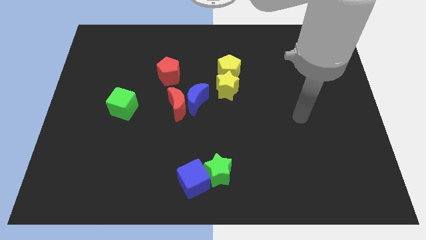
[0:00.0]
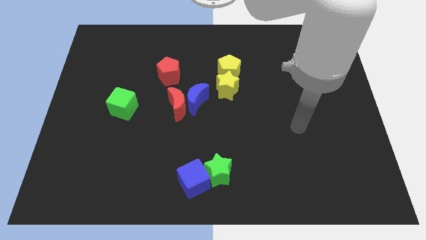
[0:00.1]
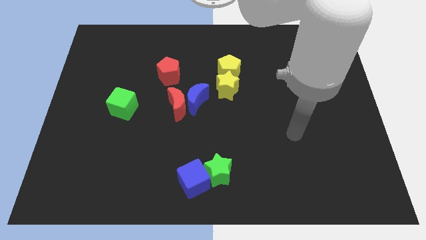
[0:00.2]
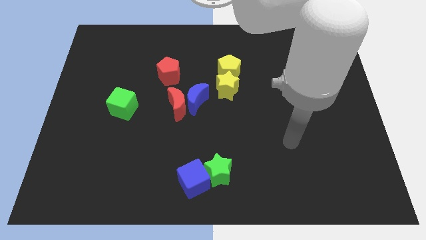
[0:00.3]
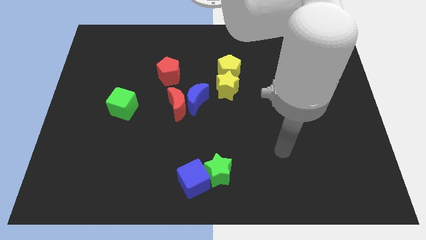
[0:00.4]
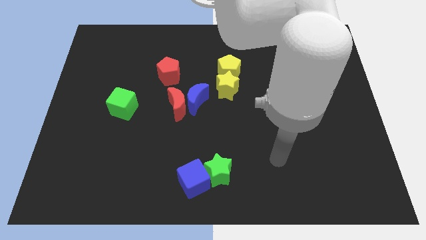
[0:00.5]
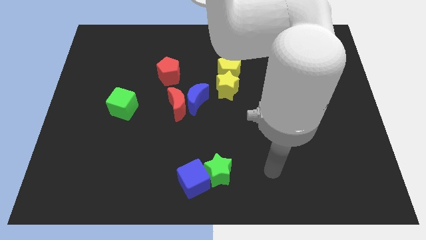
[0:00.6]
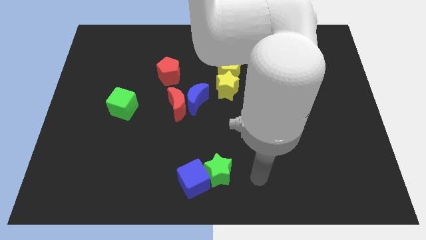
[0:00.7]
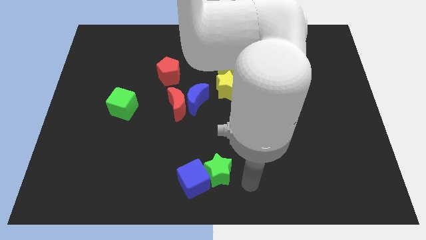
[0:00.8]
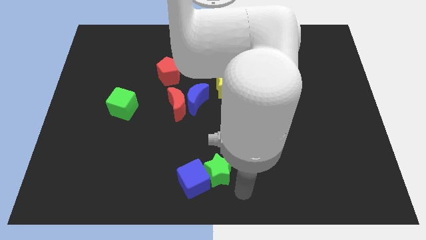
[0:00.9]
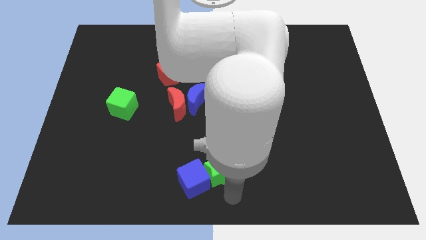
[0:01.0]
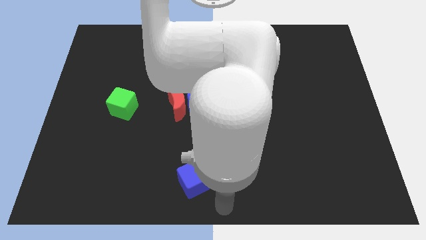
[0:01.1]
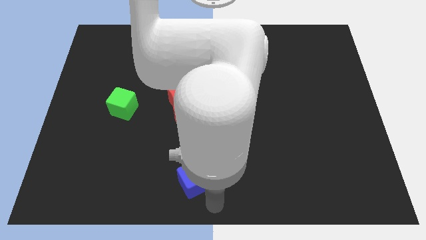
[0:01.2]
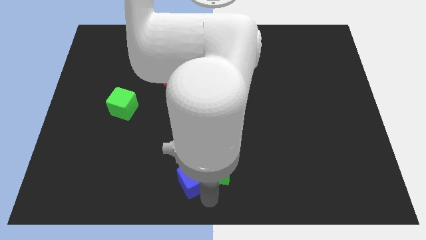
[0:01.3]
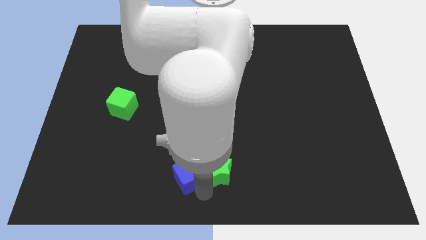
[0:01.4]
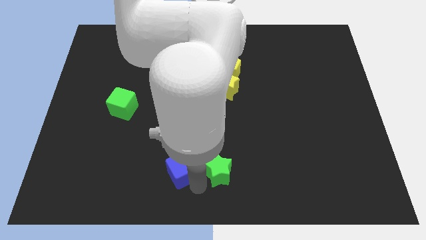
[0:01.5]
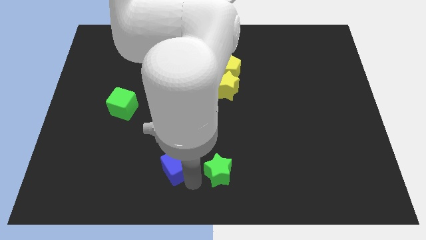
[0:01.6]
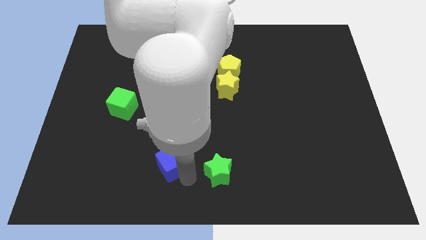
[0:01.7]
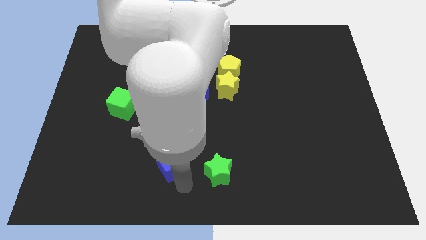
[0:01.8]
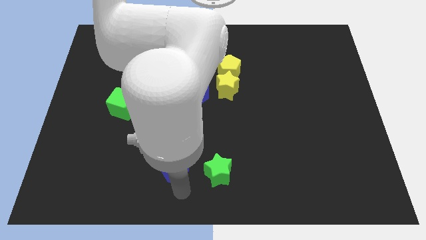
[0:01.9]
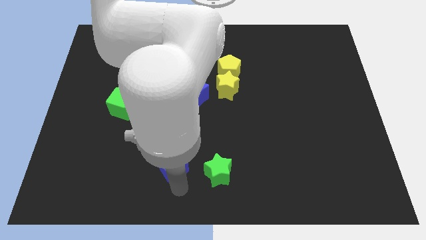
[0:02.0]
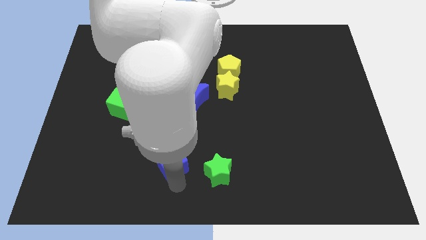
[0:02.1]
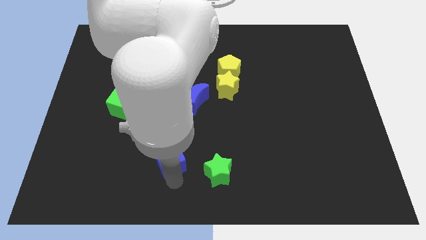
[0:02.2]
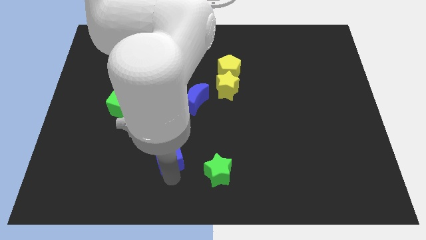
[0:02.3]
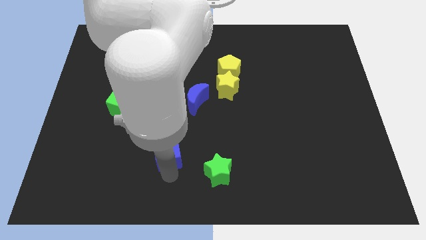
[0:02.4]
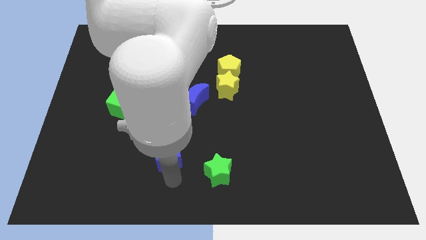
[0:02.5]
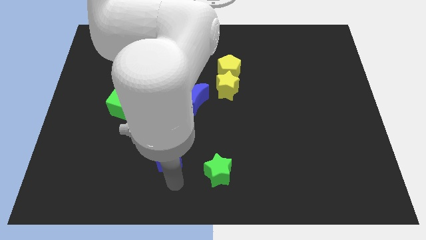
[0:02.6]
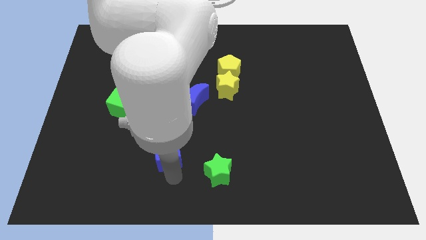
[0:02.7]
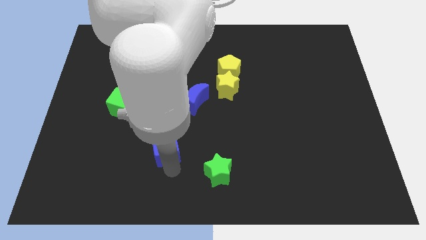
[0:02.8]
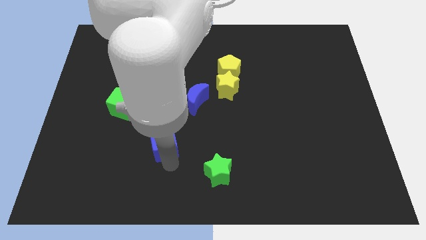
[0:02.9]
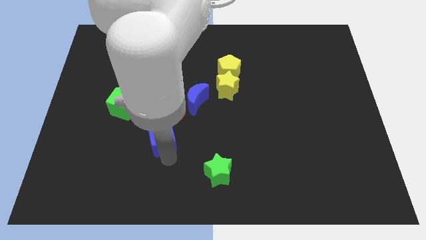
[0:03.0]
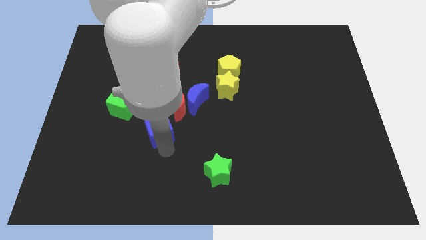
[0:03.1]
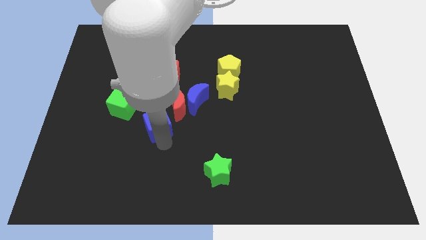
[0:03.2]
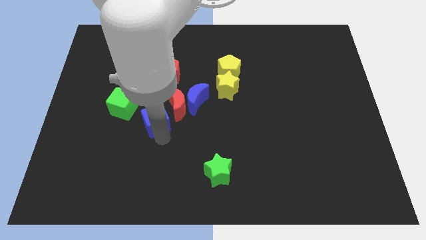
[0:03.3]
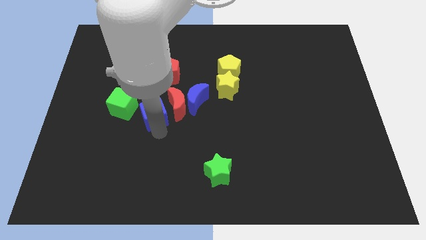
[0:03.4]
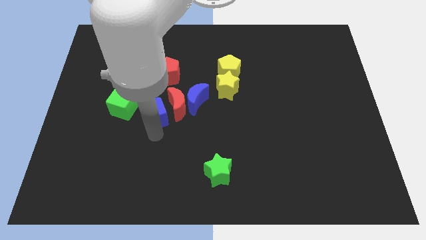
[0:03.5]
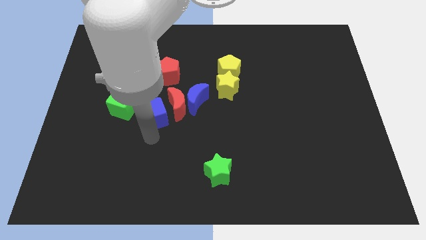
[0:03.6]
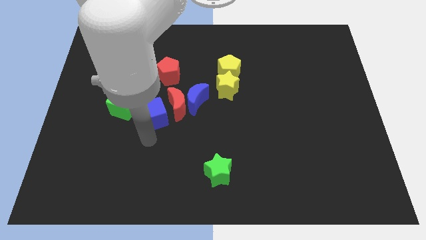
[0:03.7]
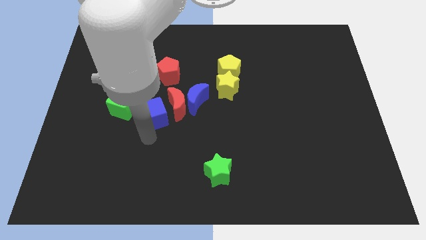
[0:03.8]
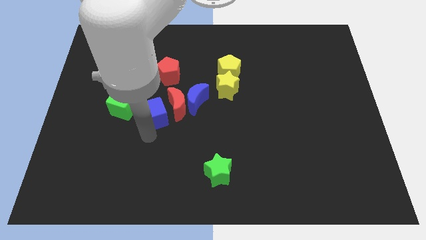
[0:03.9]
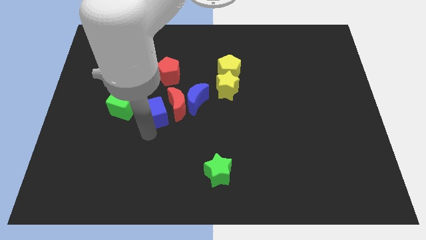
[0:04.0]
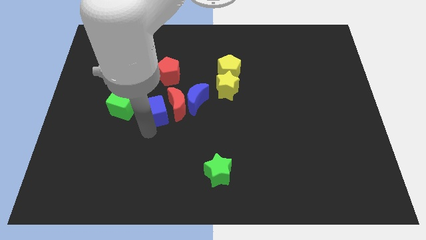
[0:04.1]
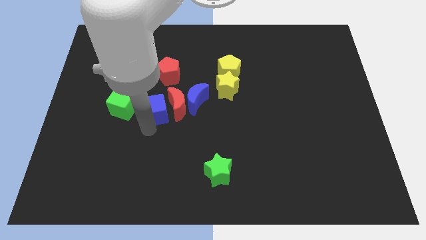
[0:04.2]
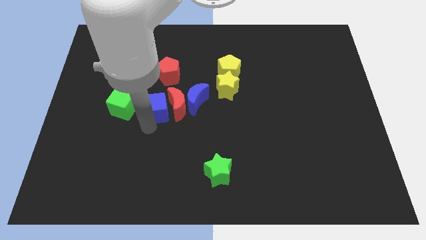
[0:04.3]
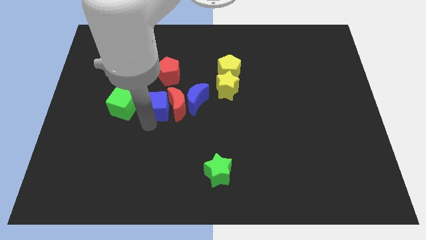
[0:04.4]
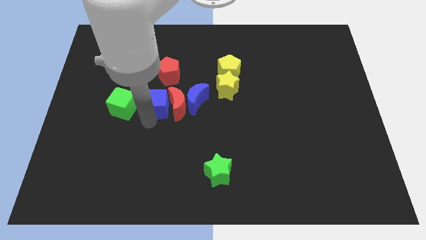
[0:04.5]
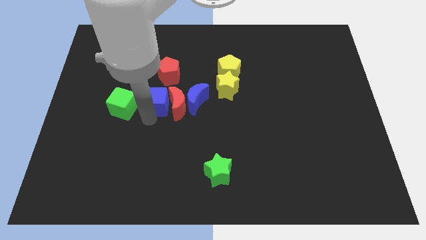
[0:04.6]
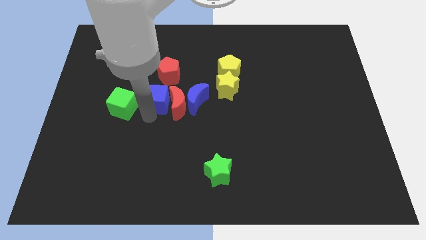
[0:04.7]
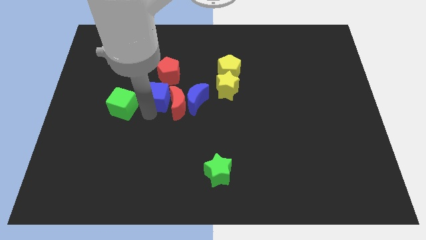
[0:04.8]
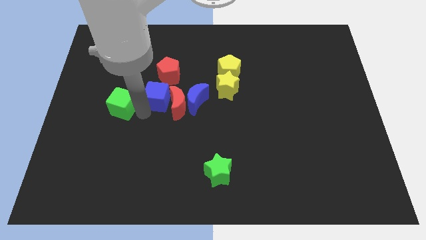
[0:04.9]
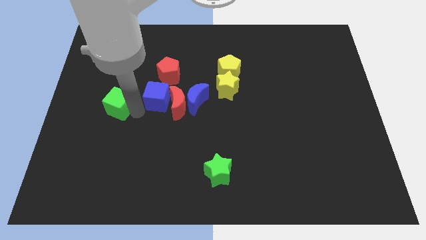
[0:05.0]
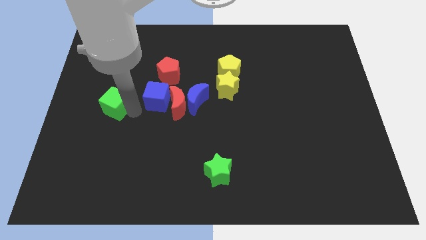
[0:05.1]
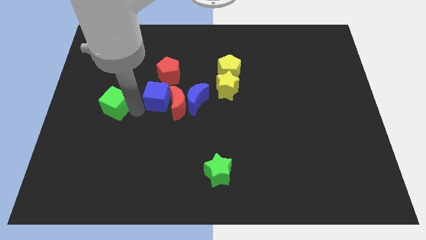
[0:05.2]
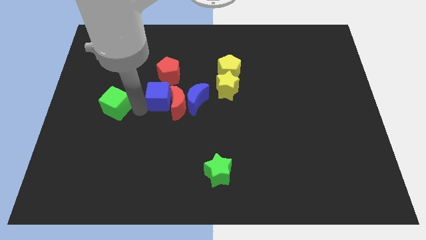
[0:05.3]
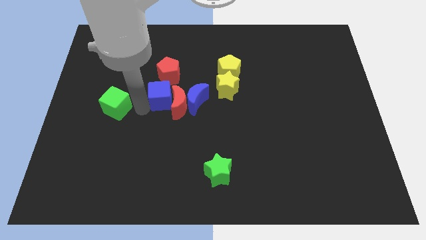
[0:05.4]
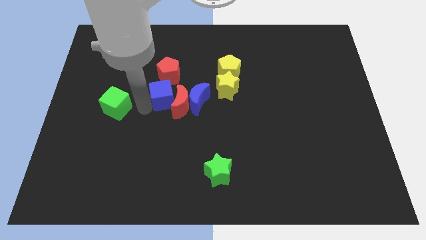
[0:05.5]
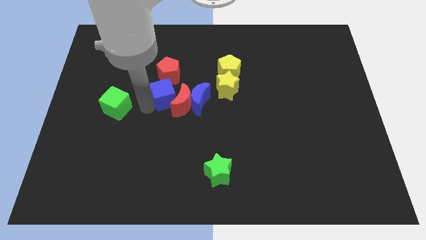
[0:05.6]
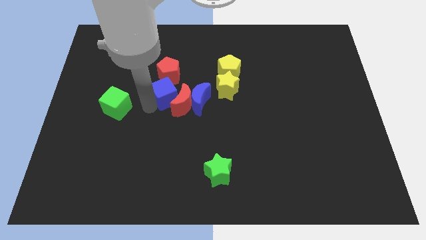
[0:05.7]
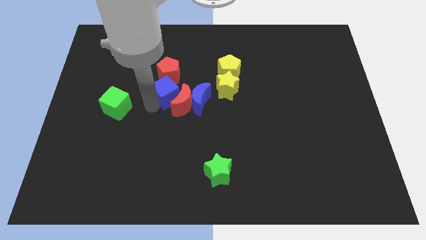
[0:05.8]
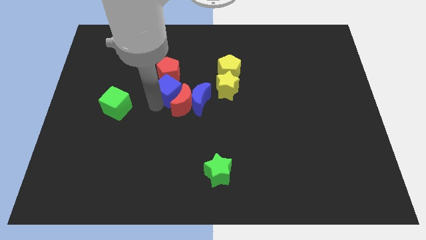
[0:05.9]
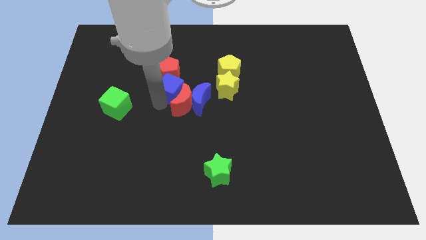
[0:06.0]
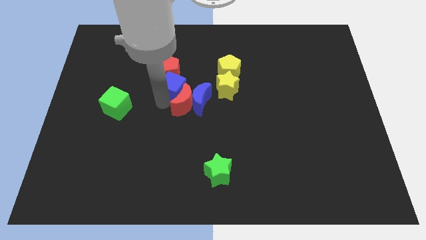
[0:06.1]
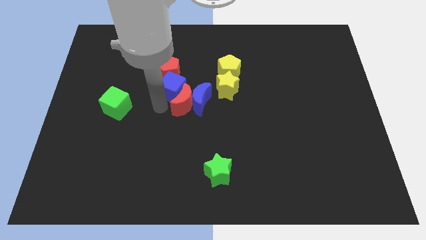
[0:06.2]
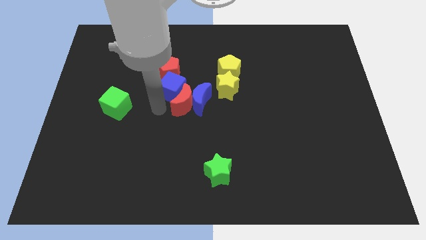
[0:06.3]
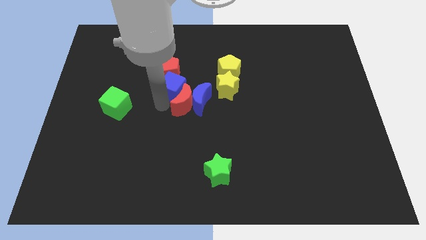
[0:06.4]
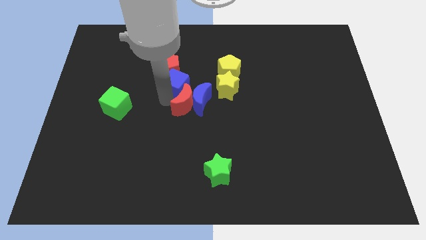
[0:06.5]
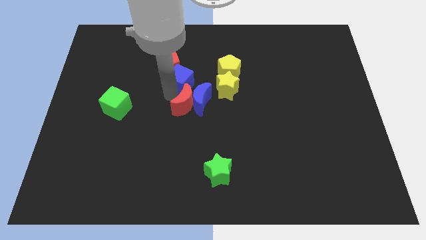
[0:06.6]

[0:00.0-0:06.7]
put the blue cube just left of the yellow pentagon
